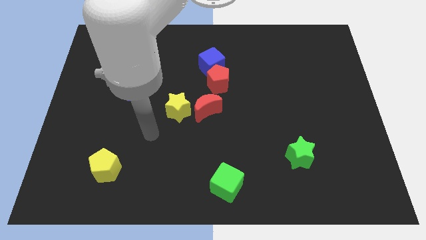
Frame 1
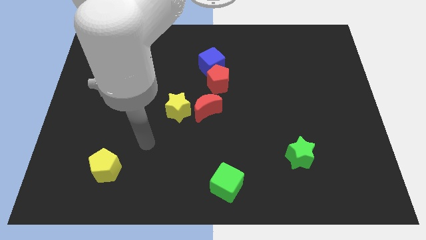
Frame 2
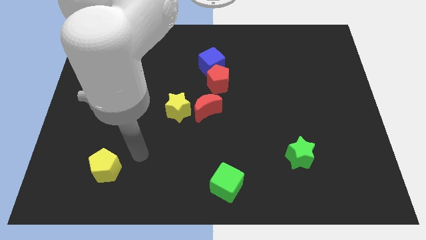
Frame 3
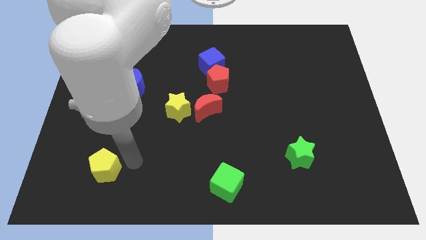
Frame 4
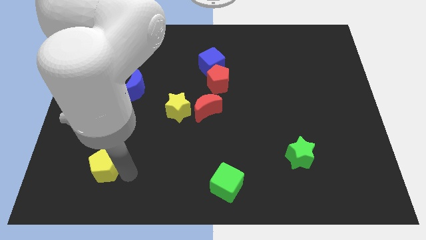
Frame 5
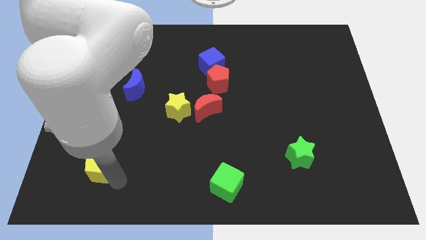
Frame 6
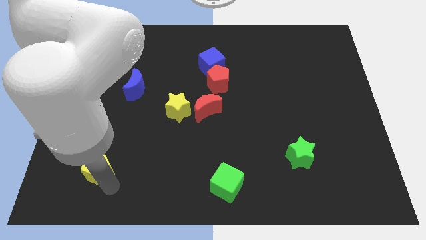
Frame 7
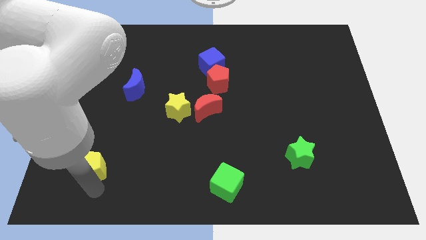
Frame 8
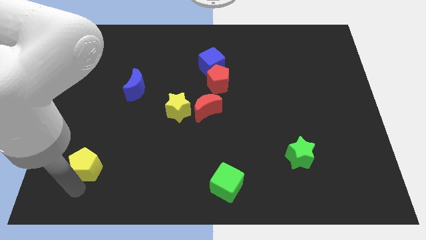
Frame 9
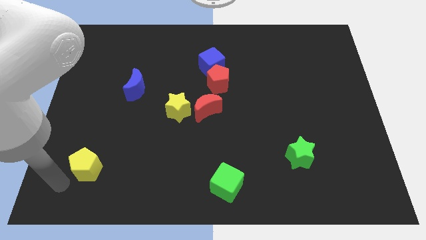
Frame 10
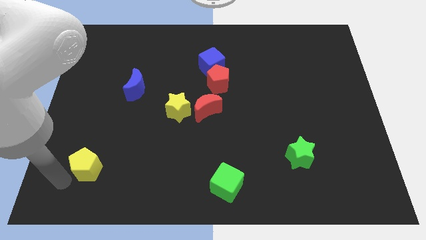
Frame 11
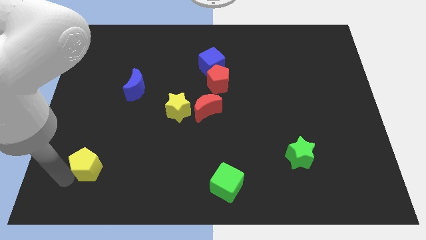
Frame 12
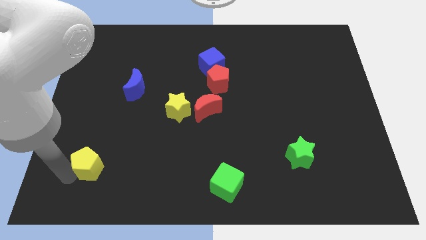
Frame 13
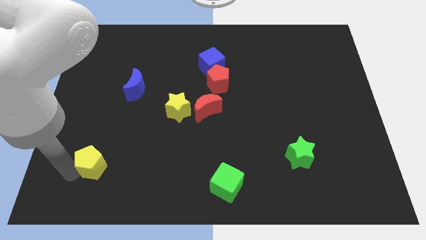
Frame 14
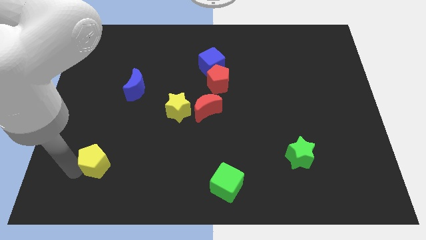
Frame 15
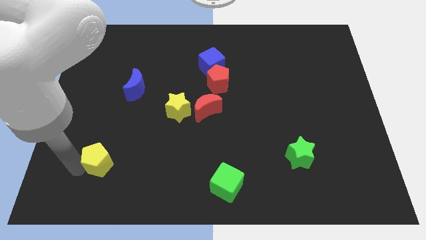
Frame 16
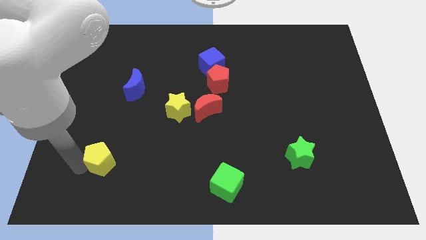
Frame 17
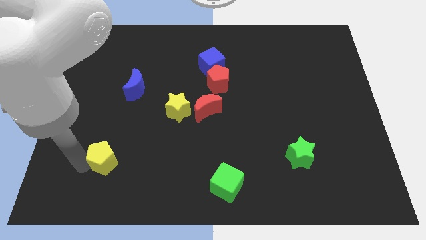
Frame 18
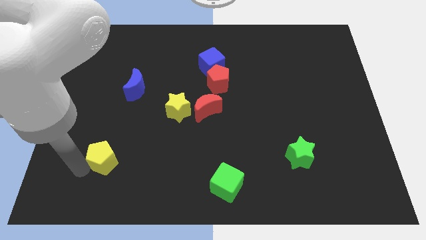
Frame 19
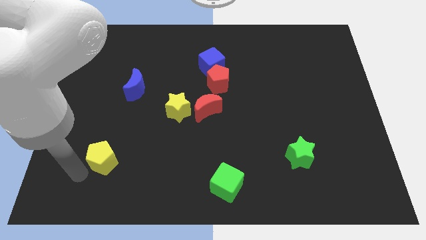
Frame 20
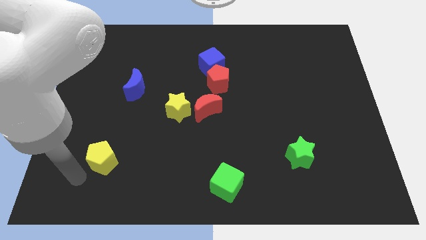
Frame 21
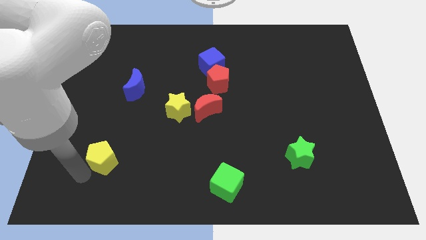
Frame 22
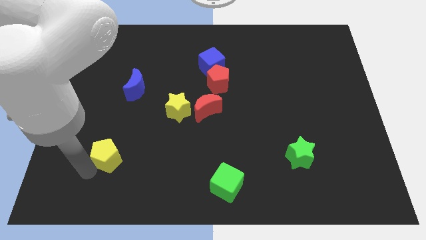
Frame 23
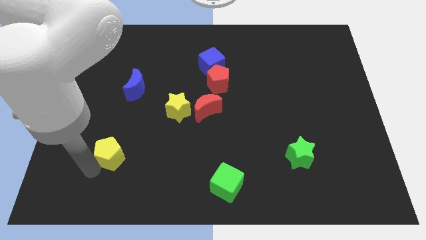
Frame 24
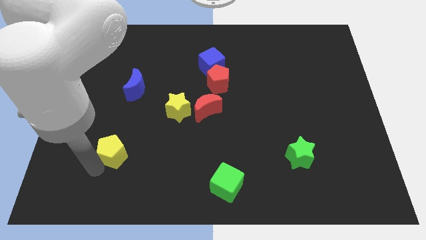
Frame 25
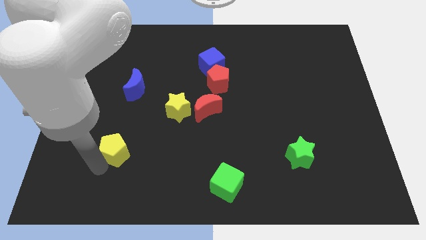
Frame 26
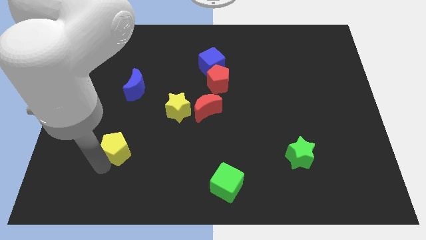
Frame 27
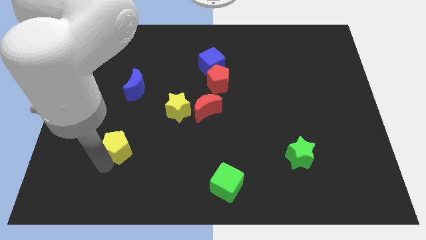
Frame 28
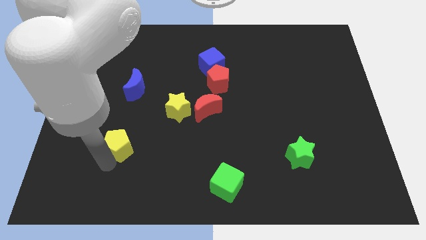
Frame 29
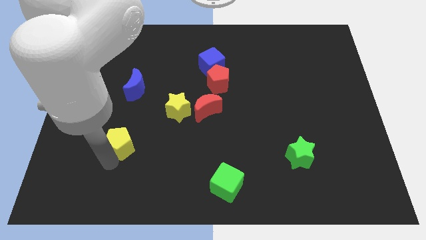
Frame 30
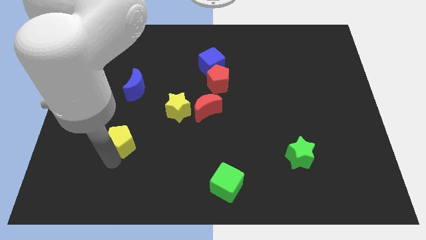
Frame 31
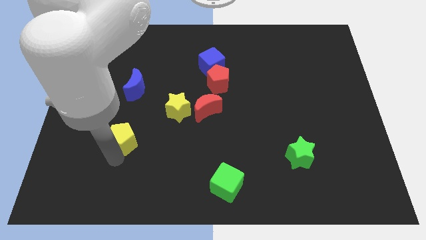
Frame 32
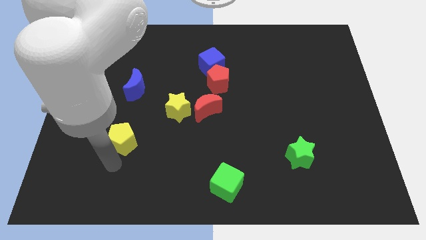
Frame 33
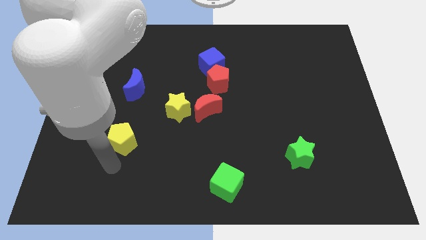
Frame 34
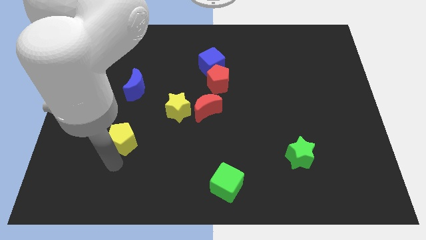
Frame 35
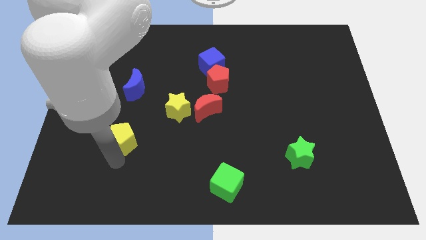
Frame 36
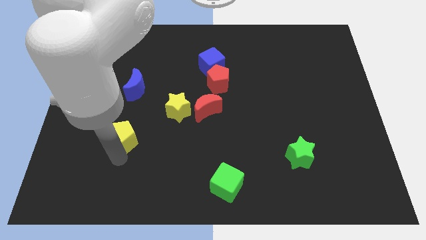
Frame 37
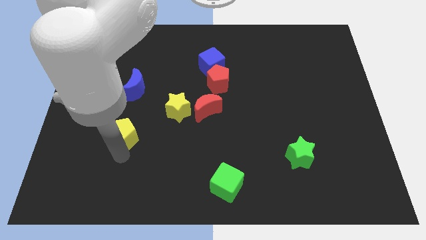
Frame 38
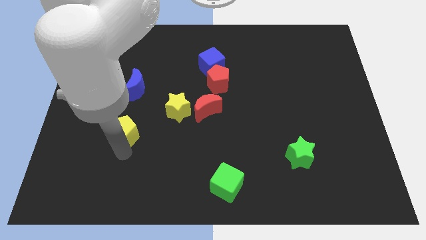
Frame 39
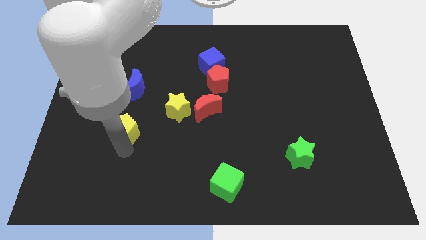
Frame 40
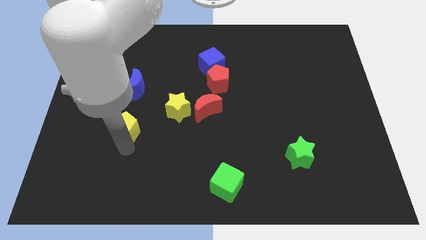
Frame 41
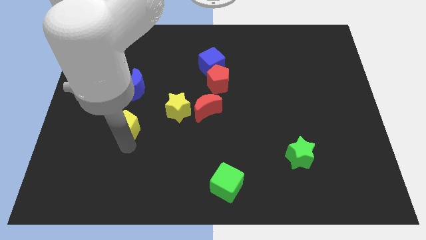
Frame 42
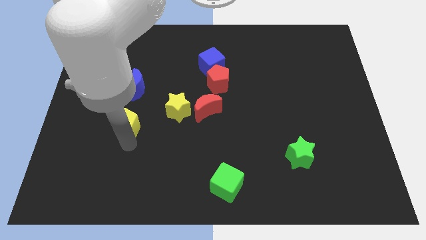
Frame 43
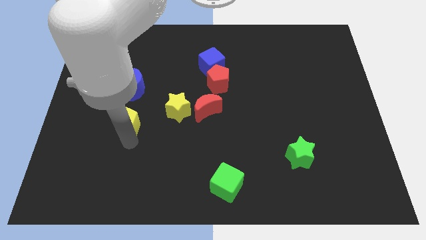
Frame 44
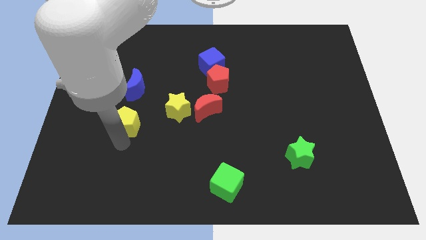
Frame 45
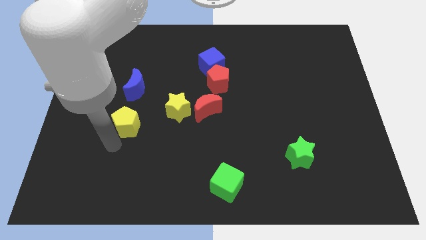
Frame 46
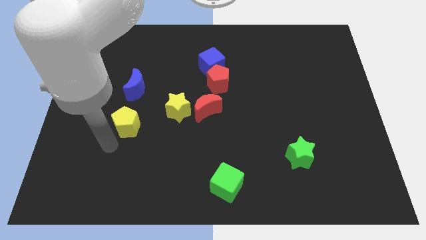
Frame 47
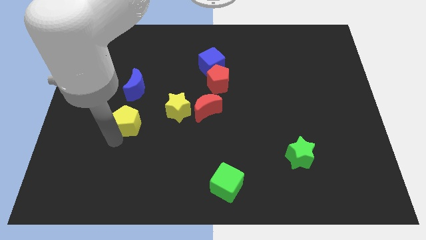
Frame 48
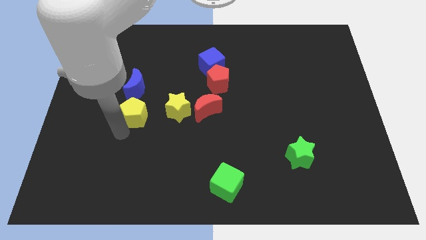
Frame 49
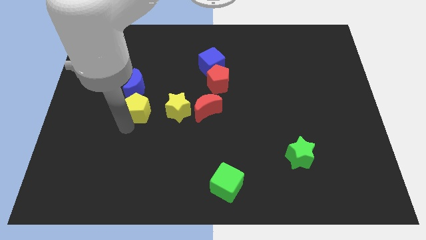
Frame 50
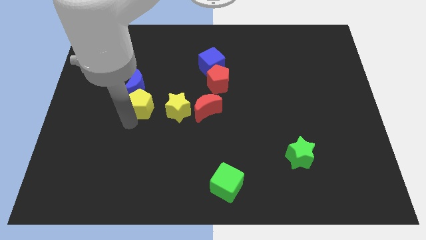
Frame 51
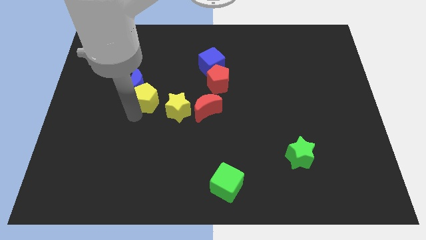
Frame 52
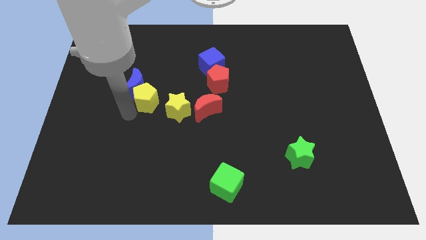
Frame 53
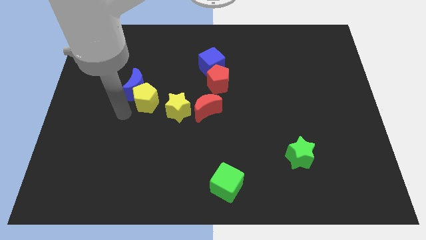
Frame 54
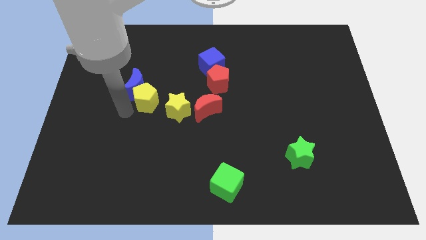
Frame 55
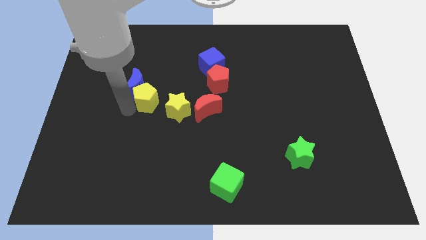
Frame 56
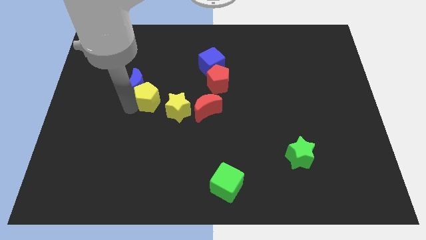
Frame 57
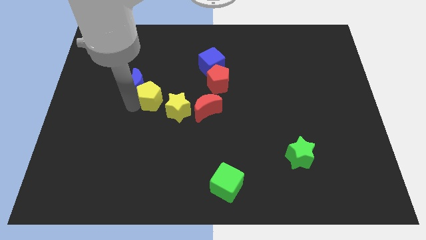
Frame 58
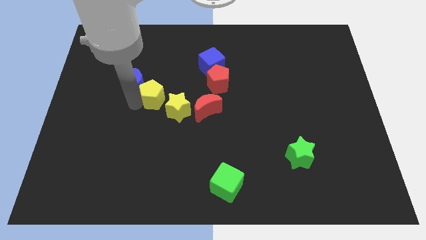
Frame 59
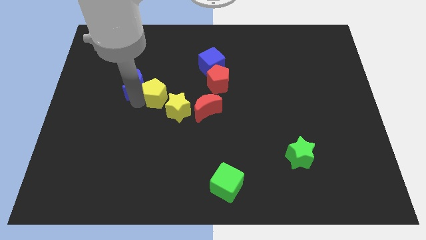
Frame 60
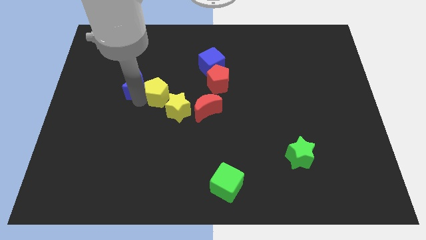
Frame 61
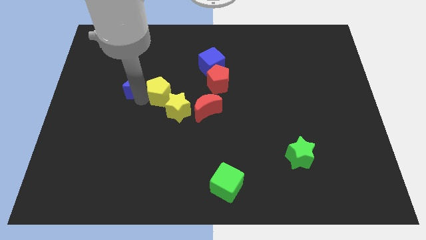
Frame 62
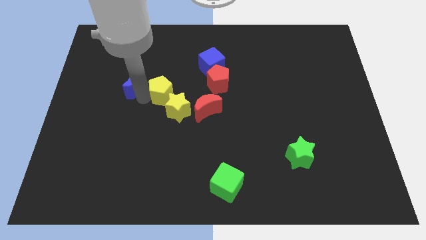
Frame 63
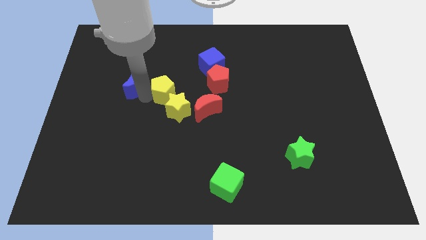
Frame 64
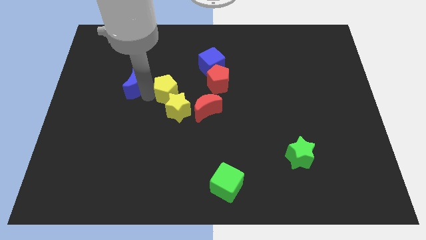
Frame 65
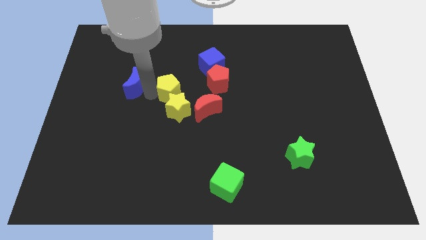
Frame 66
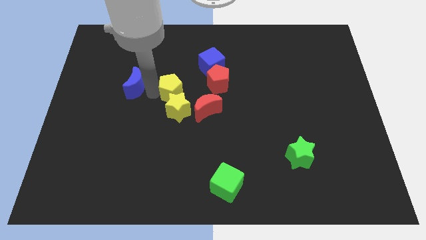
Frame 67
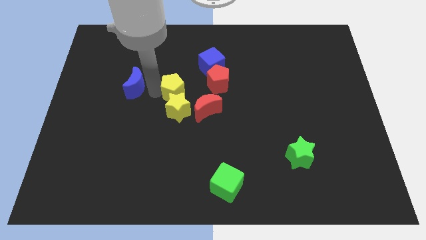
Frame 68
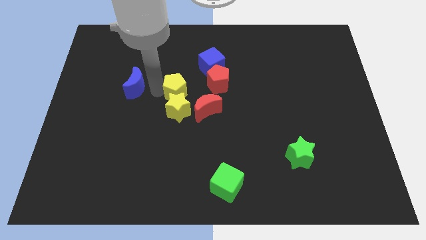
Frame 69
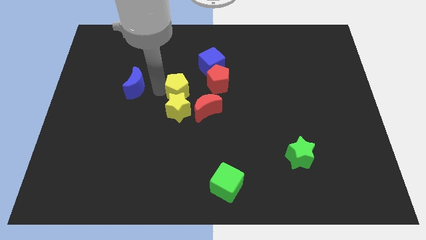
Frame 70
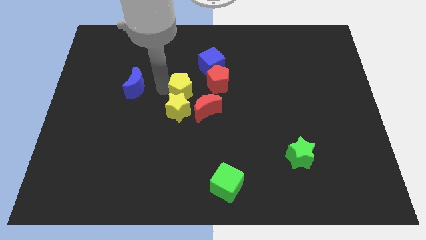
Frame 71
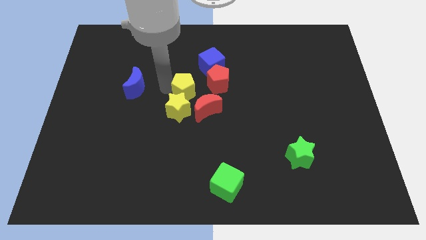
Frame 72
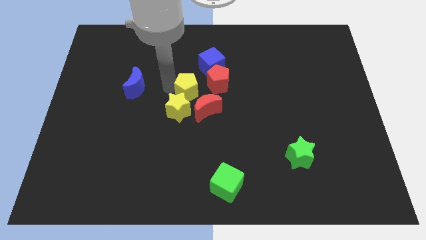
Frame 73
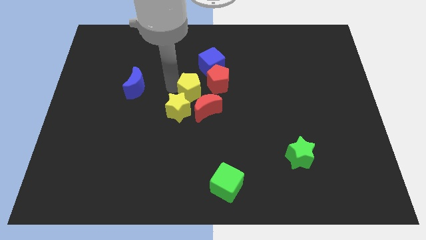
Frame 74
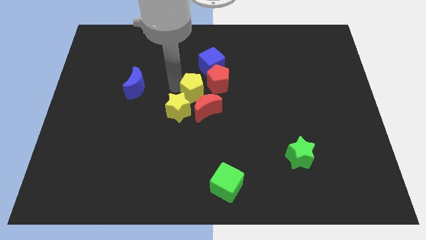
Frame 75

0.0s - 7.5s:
move the yellow pentagon to the bottom of the blue cube
